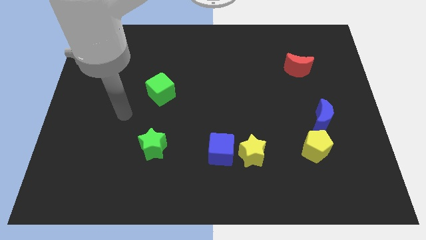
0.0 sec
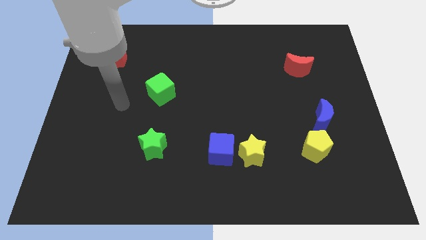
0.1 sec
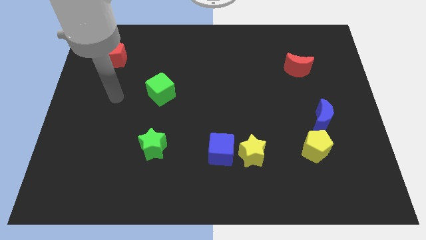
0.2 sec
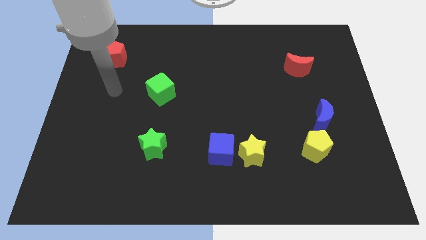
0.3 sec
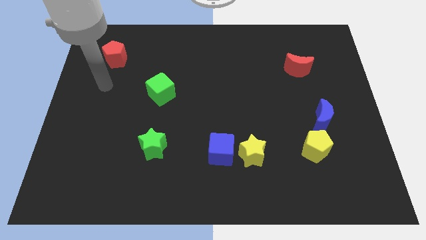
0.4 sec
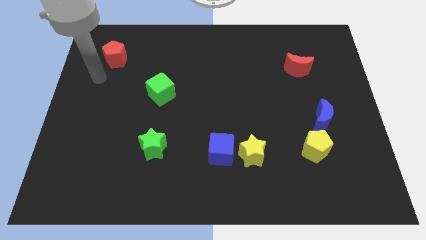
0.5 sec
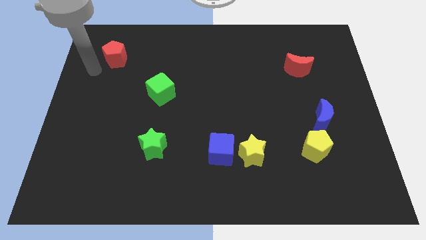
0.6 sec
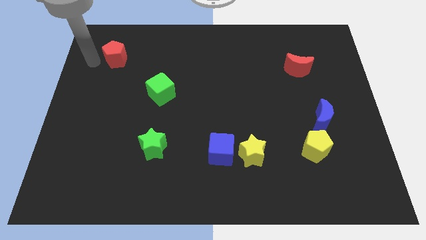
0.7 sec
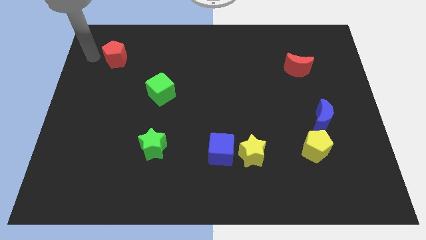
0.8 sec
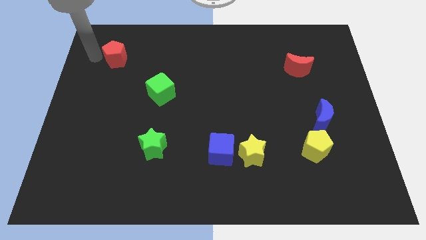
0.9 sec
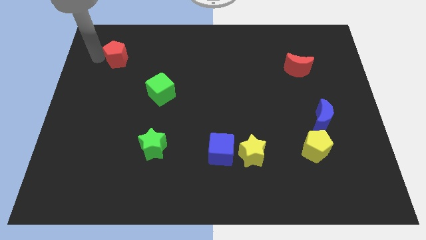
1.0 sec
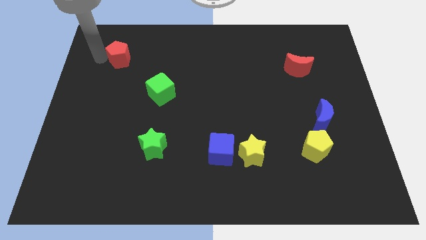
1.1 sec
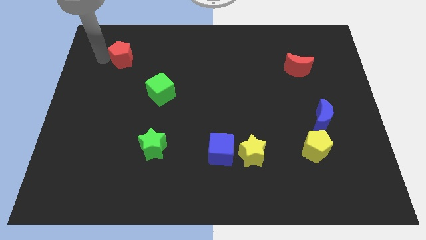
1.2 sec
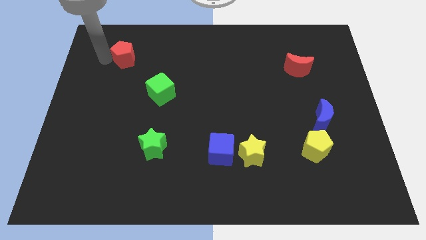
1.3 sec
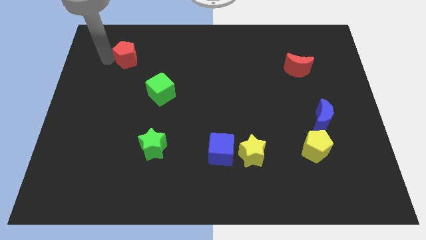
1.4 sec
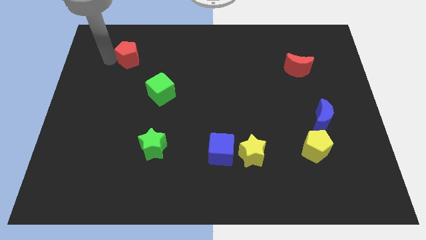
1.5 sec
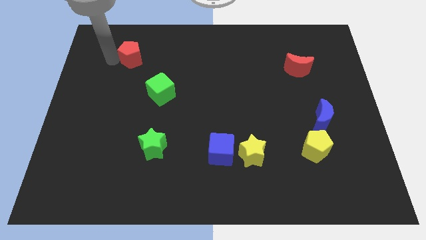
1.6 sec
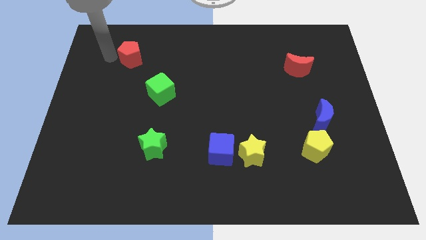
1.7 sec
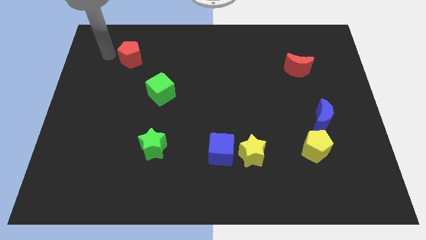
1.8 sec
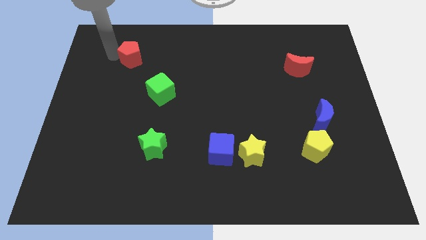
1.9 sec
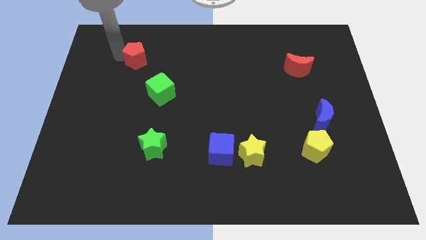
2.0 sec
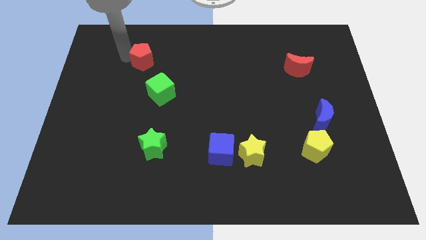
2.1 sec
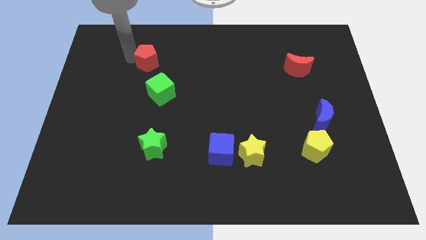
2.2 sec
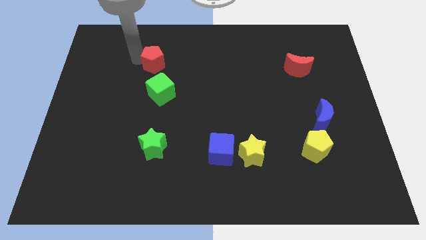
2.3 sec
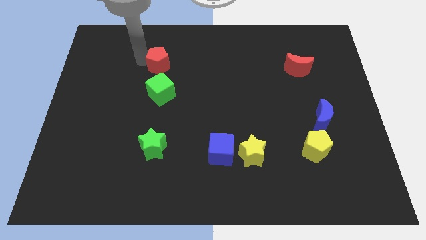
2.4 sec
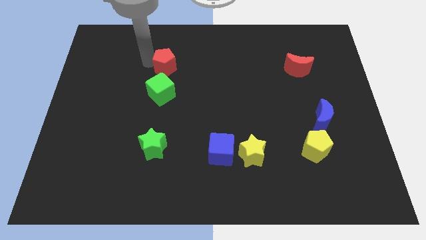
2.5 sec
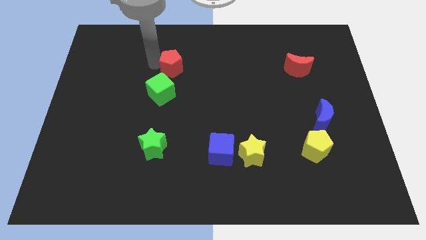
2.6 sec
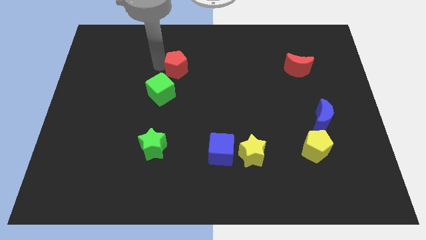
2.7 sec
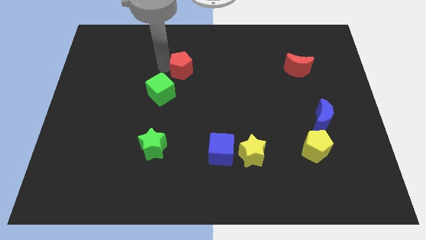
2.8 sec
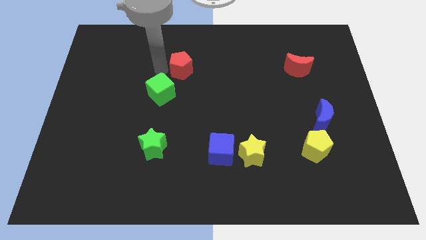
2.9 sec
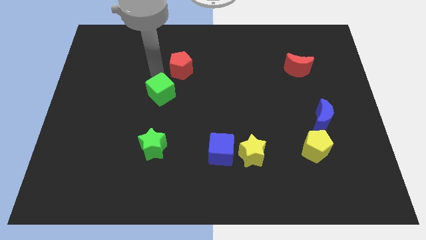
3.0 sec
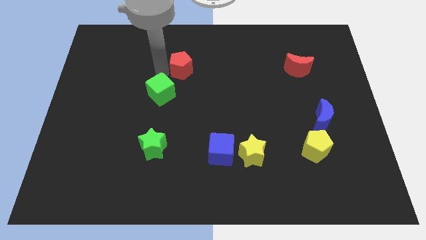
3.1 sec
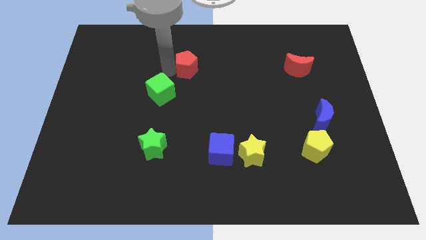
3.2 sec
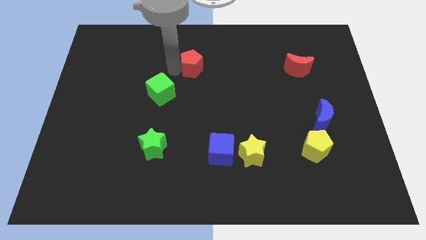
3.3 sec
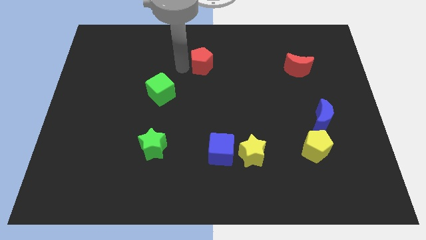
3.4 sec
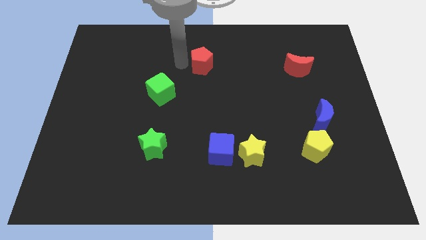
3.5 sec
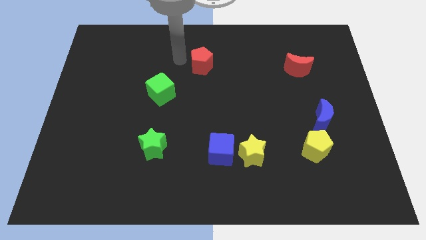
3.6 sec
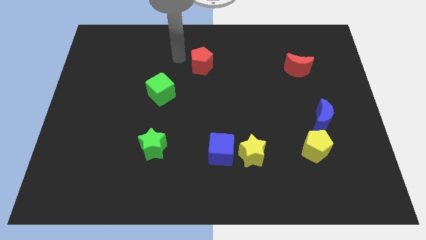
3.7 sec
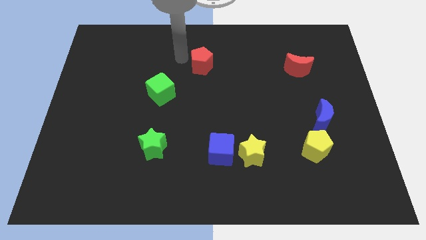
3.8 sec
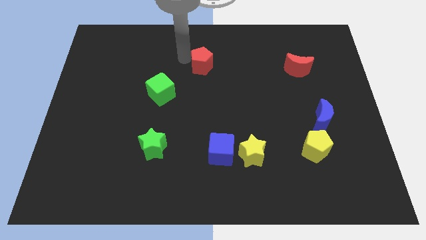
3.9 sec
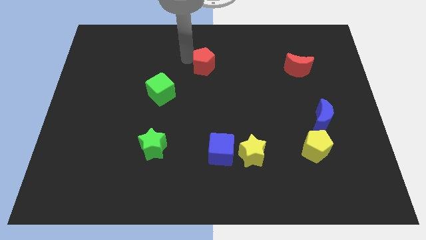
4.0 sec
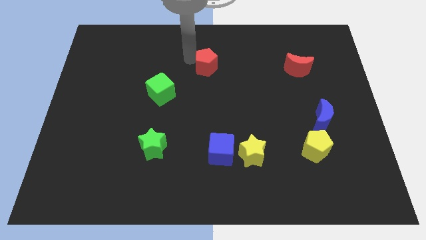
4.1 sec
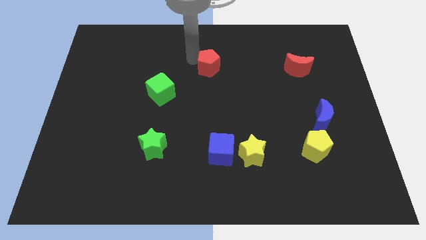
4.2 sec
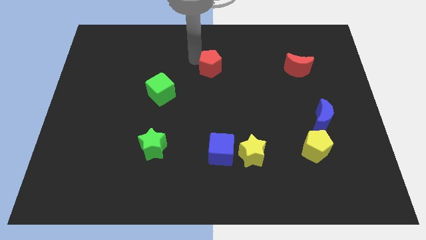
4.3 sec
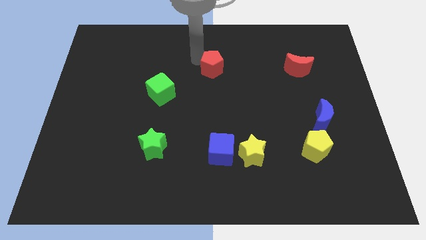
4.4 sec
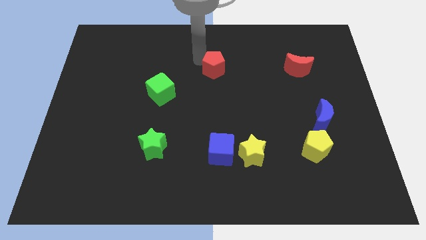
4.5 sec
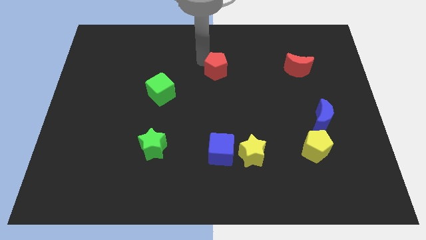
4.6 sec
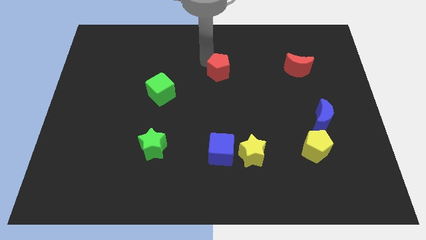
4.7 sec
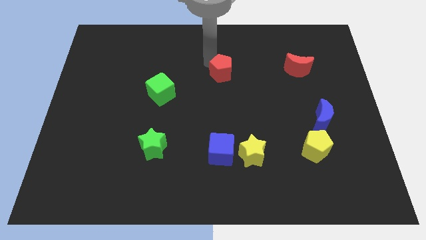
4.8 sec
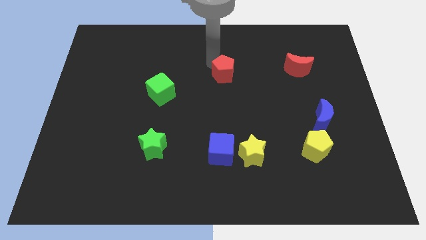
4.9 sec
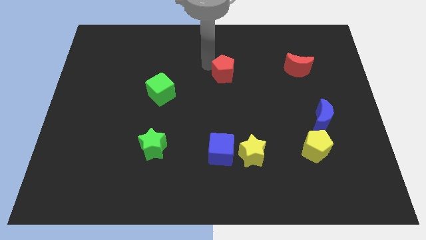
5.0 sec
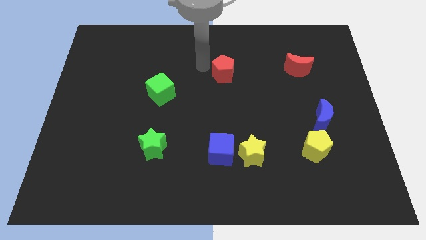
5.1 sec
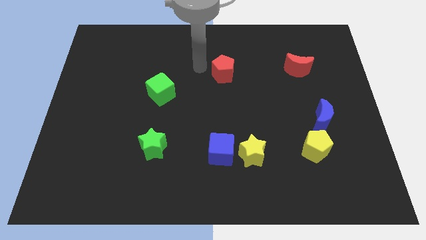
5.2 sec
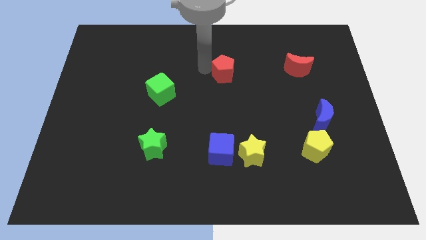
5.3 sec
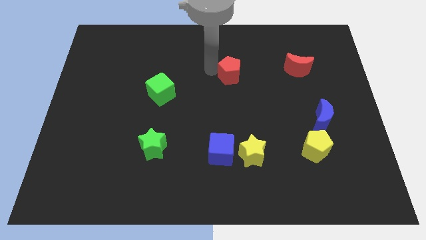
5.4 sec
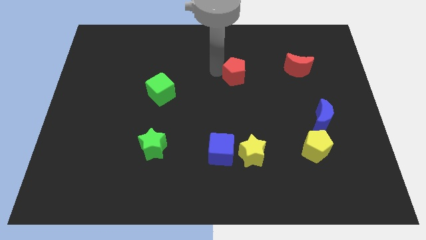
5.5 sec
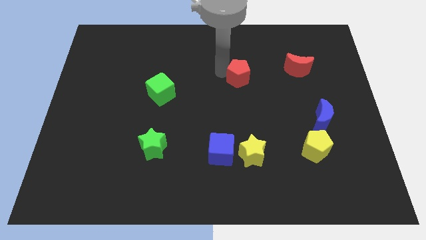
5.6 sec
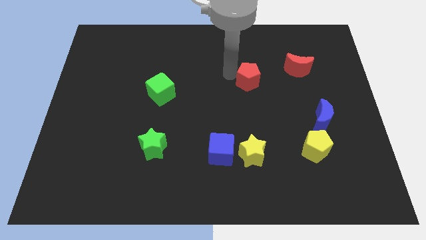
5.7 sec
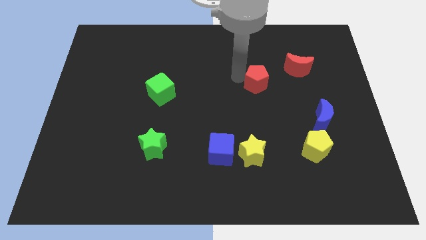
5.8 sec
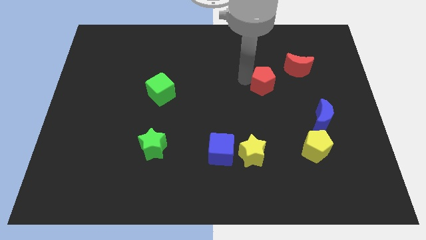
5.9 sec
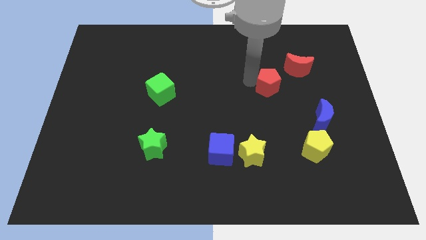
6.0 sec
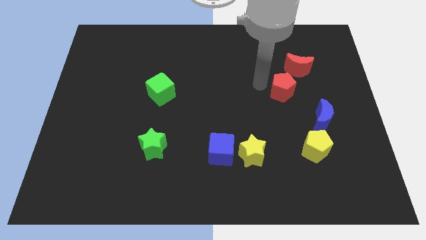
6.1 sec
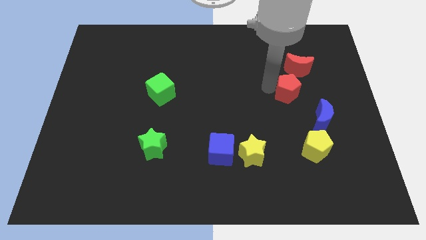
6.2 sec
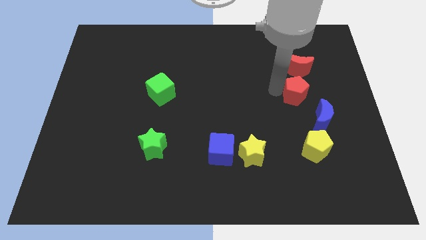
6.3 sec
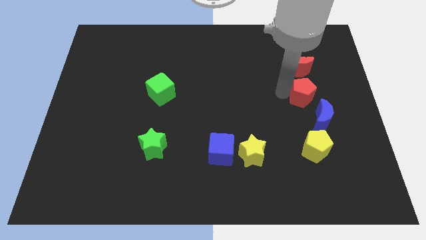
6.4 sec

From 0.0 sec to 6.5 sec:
put the red pentagon to the top of the blue moon

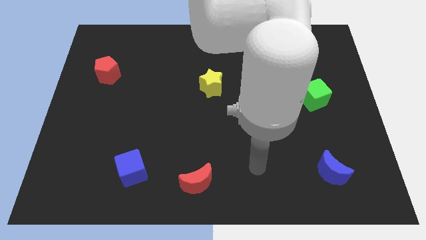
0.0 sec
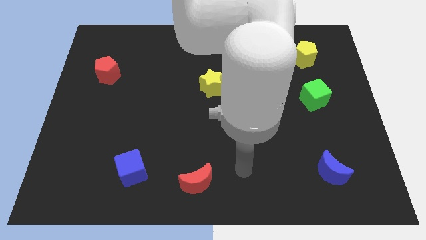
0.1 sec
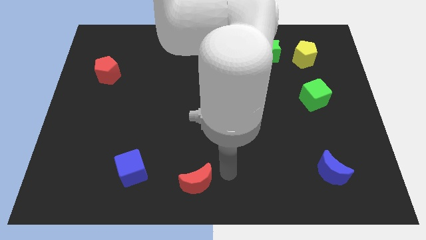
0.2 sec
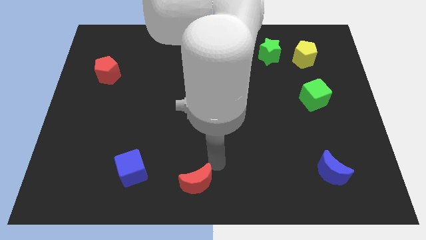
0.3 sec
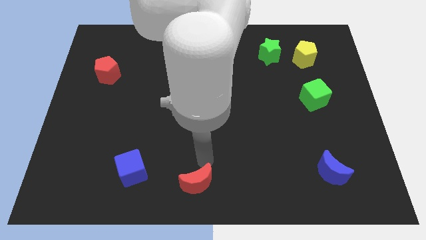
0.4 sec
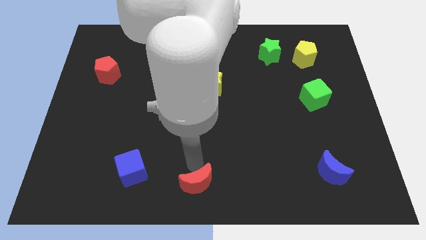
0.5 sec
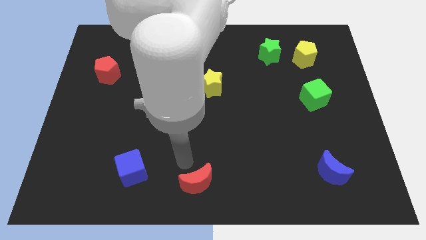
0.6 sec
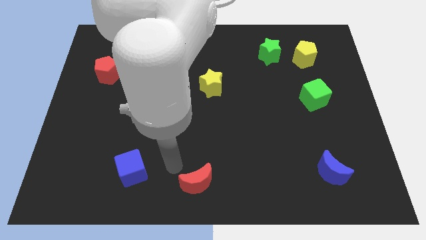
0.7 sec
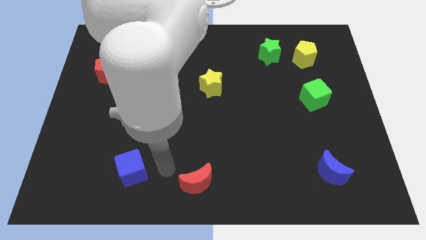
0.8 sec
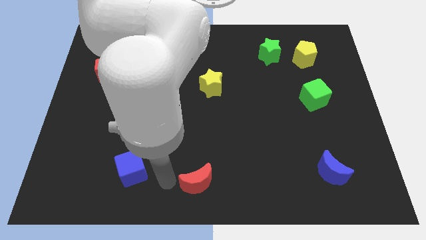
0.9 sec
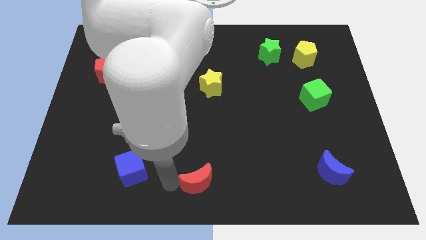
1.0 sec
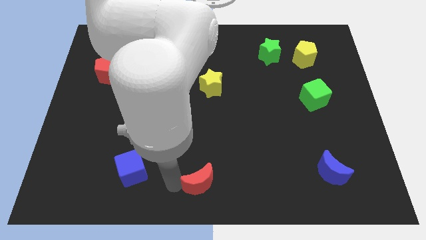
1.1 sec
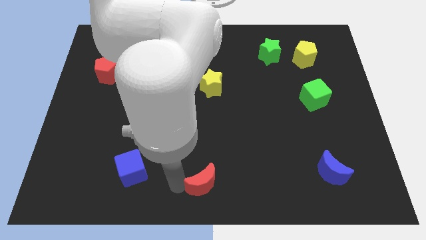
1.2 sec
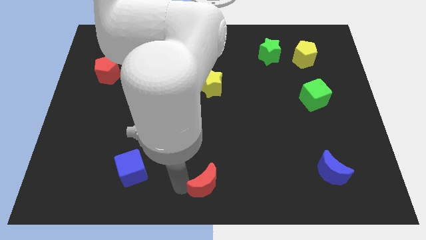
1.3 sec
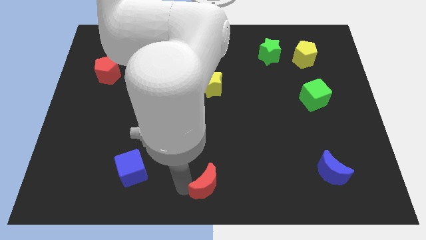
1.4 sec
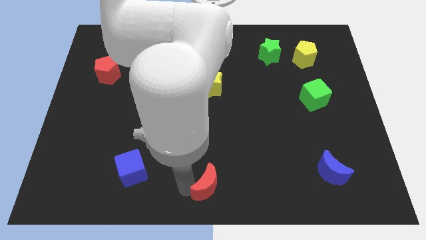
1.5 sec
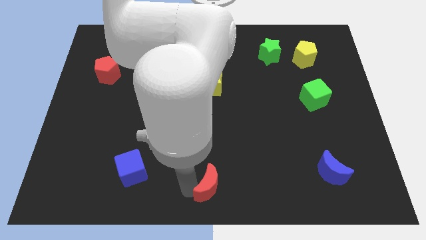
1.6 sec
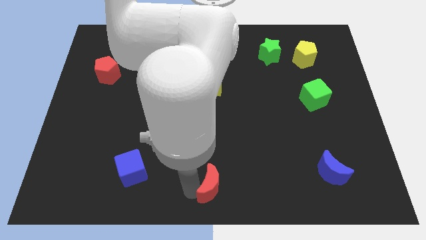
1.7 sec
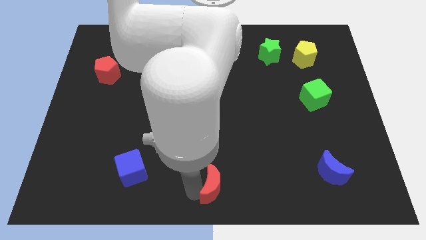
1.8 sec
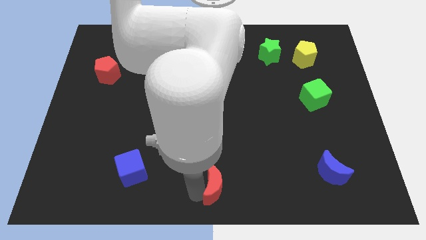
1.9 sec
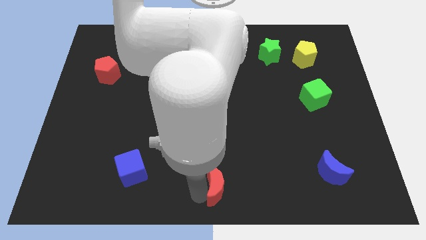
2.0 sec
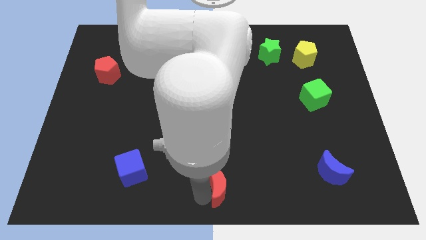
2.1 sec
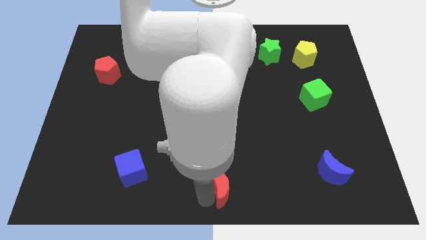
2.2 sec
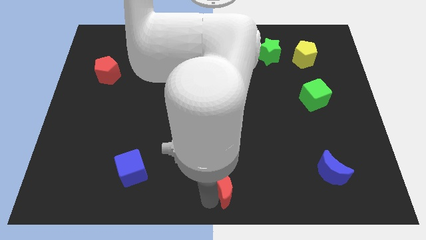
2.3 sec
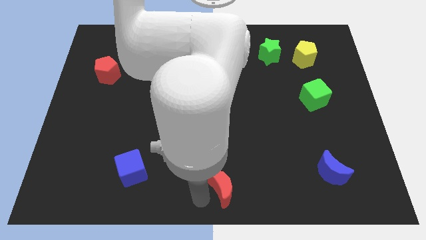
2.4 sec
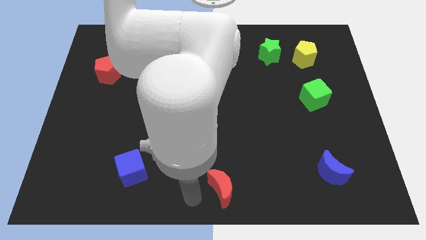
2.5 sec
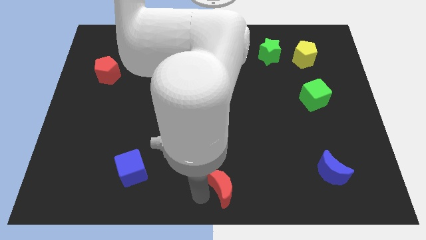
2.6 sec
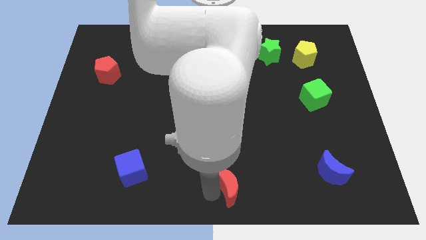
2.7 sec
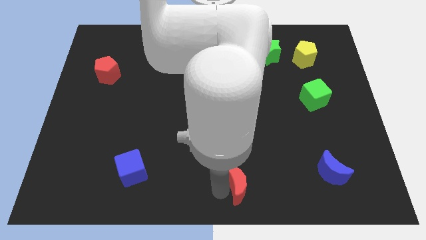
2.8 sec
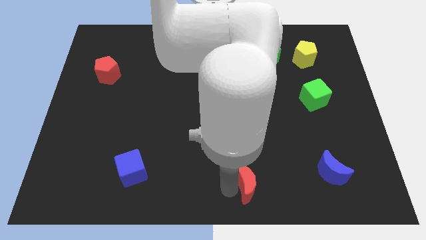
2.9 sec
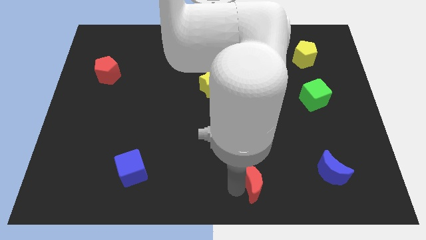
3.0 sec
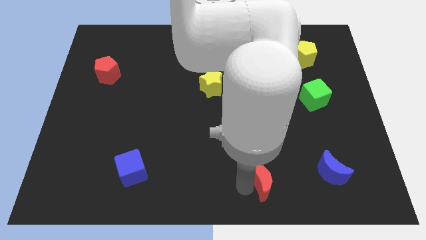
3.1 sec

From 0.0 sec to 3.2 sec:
move the red moon to the left side of the blue moon
